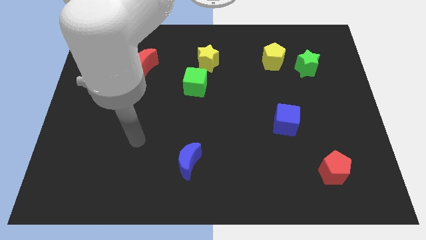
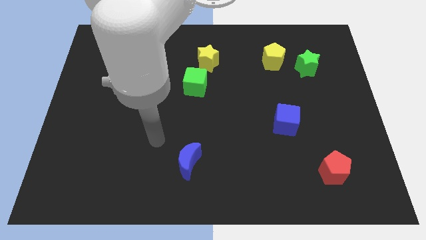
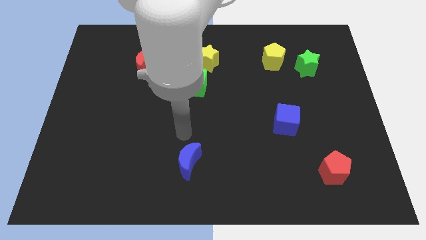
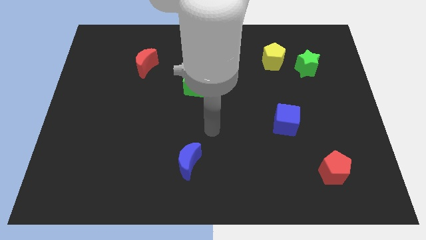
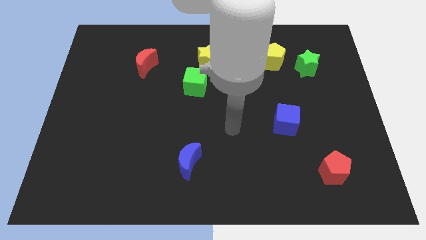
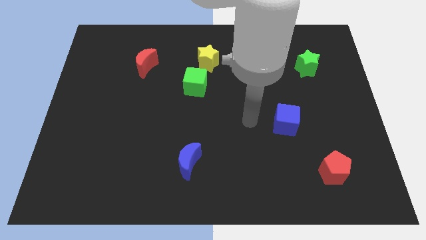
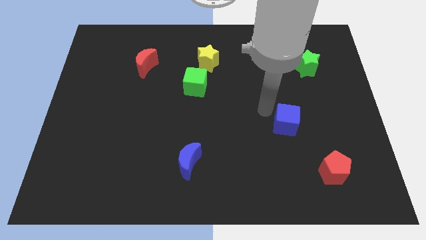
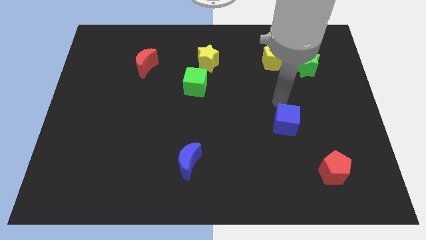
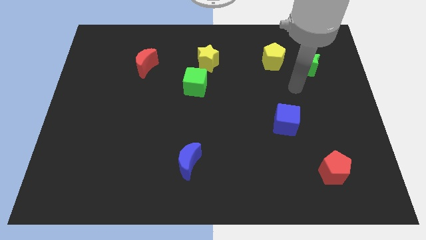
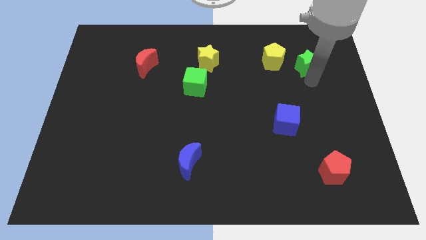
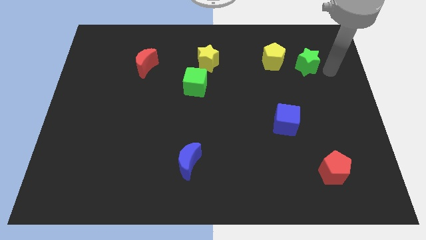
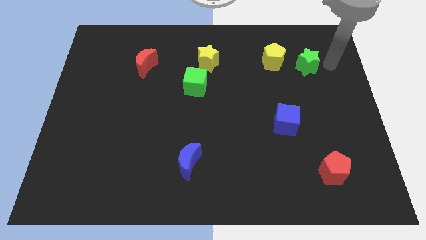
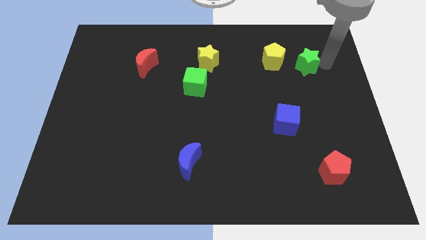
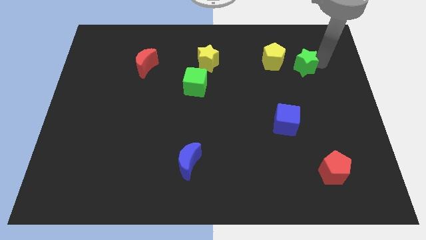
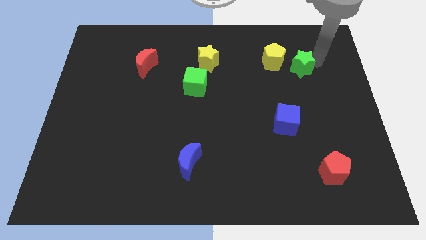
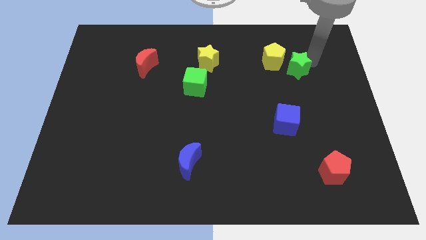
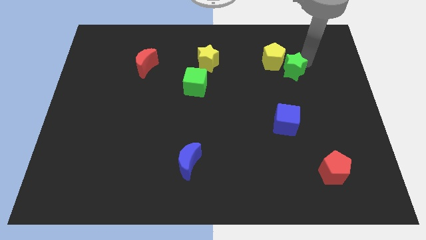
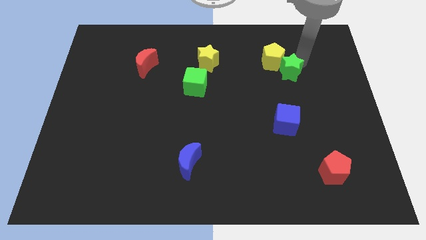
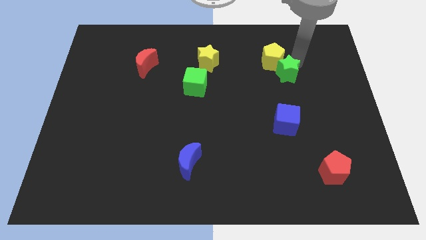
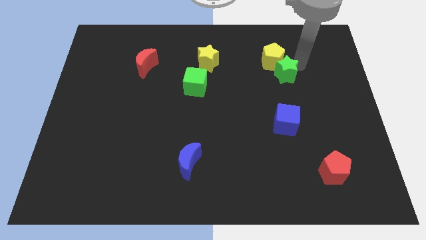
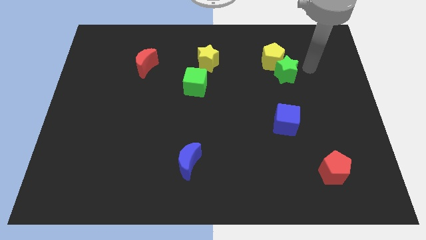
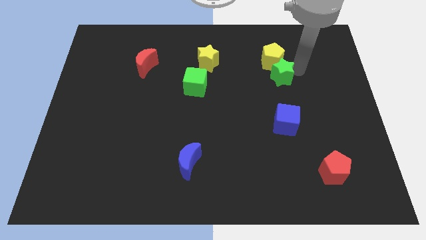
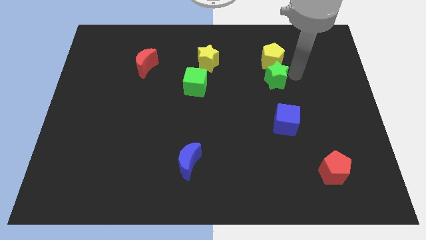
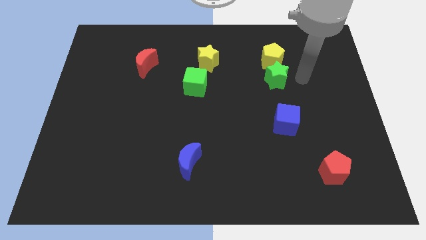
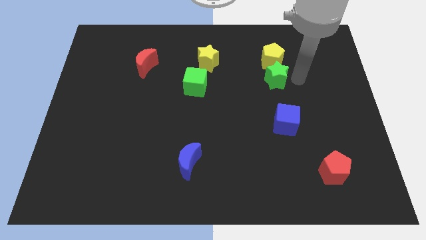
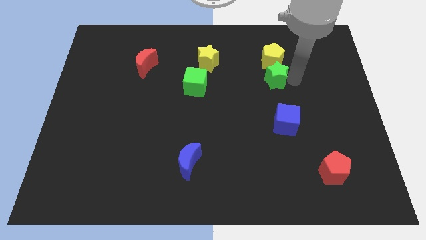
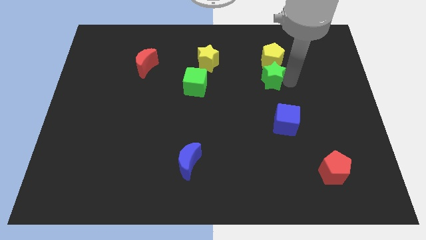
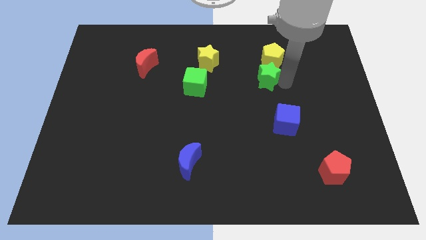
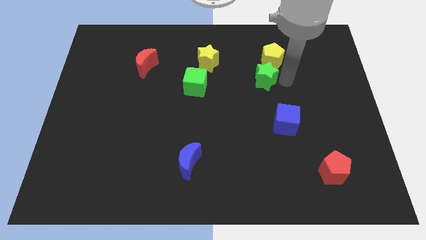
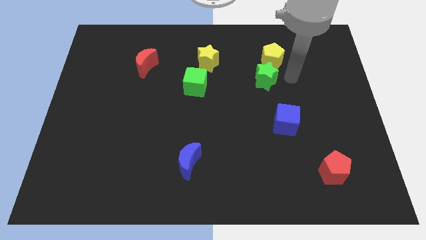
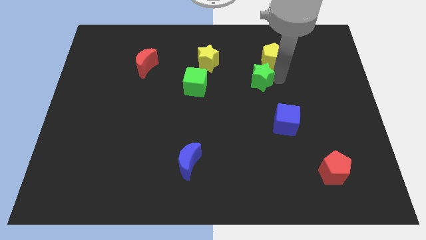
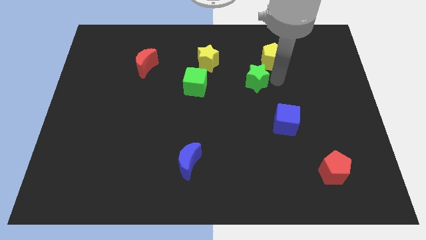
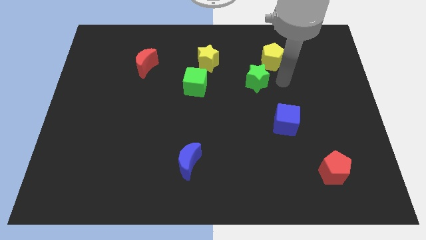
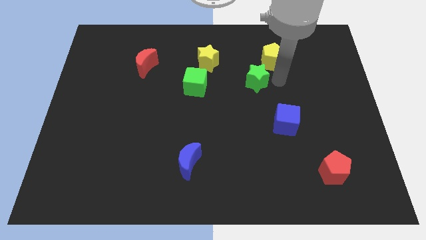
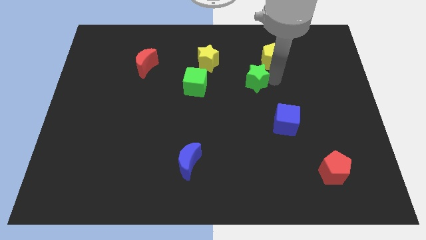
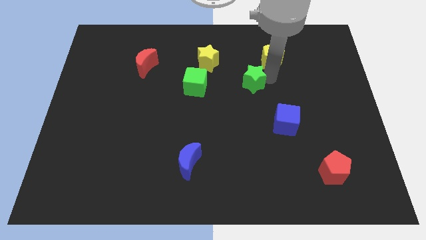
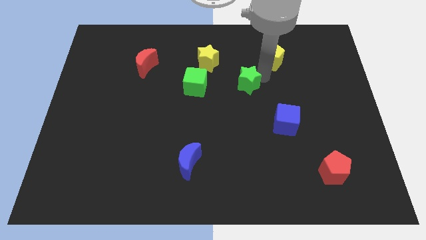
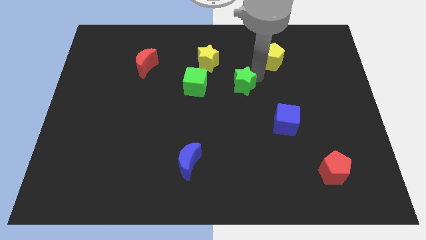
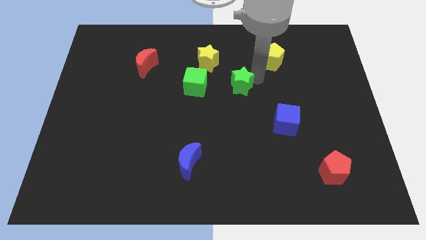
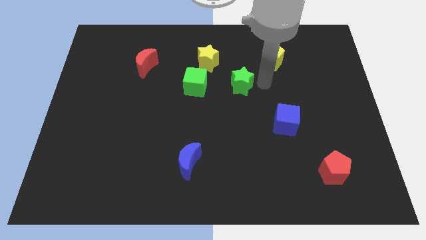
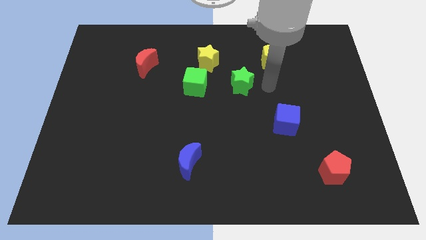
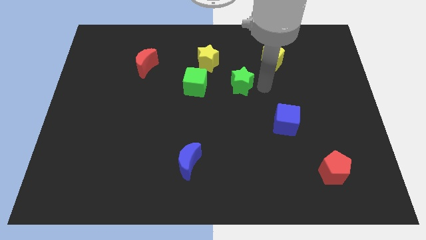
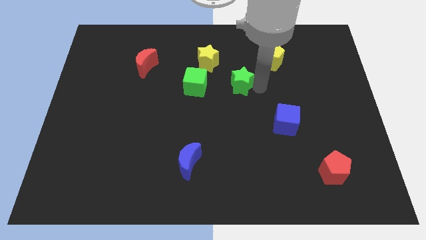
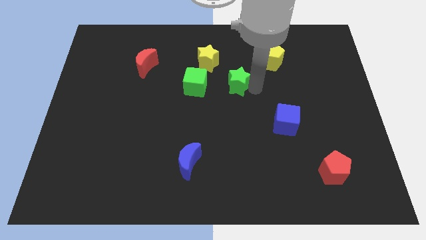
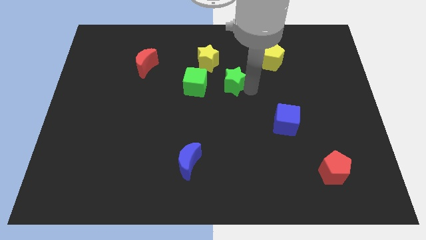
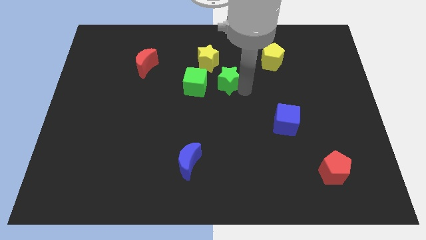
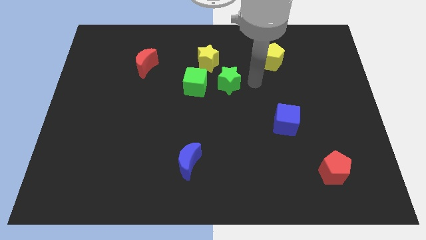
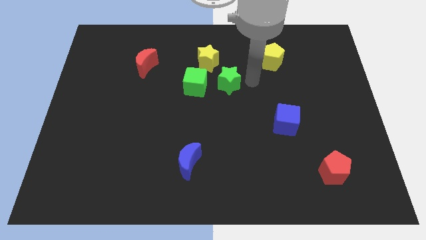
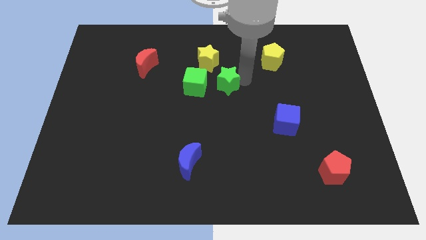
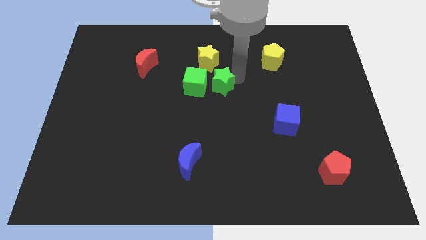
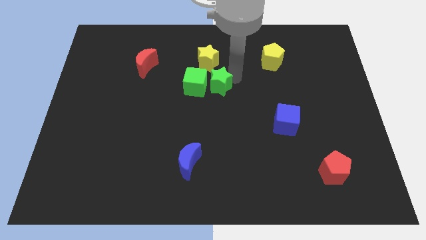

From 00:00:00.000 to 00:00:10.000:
push the green star close to the green cube

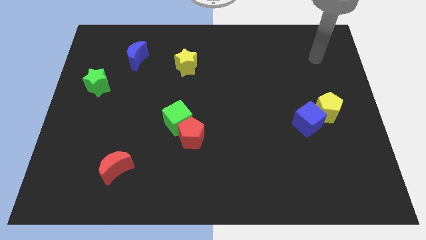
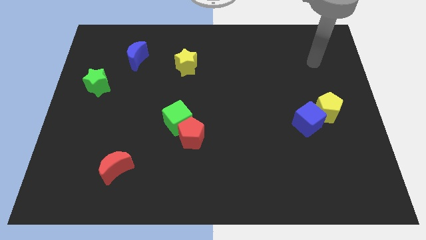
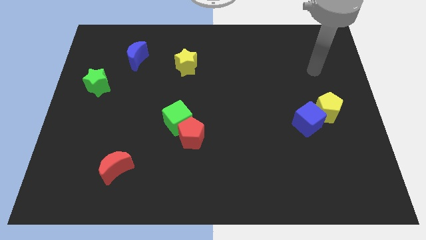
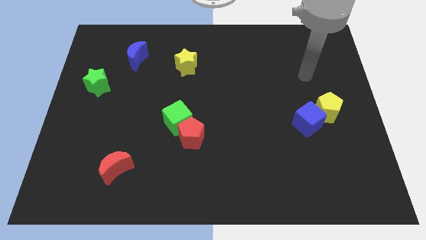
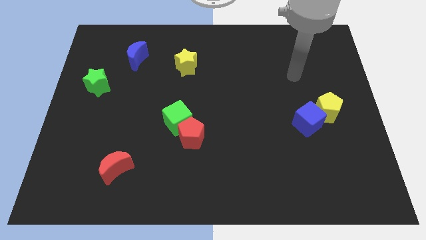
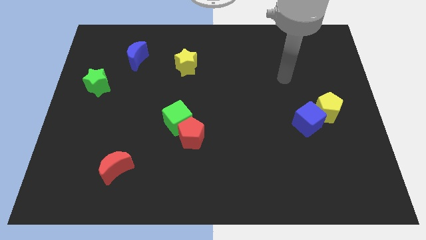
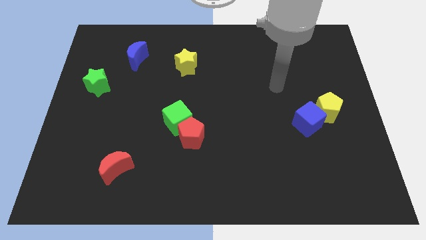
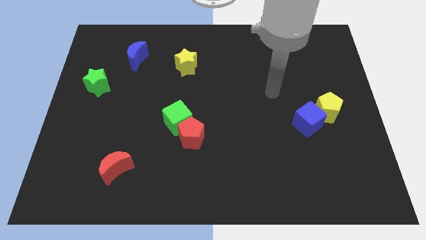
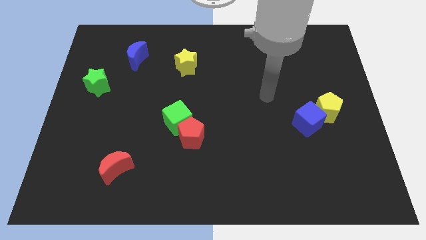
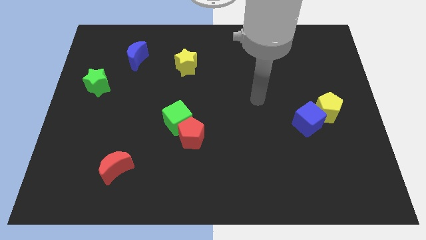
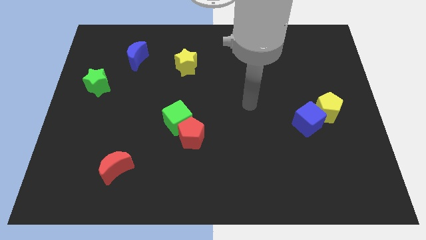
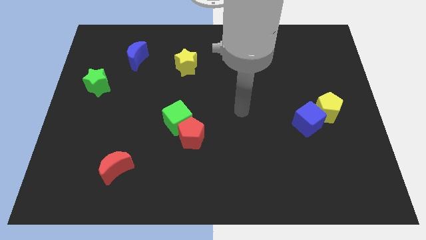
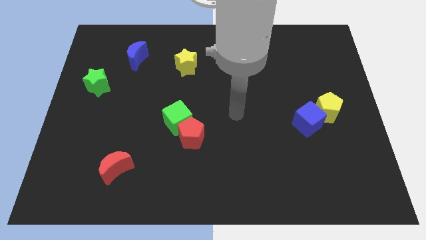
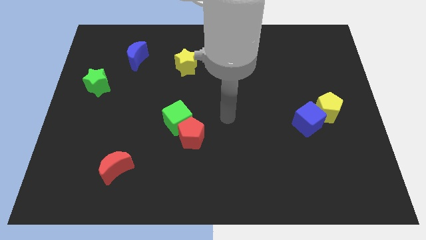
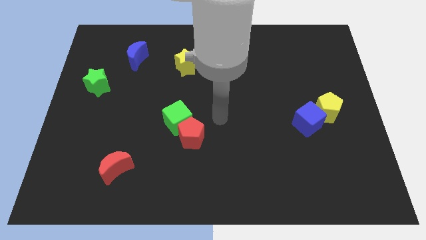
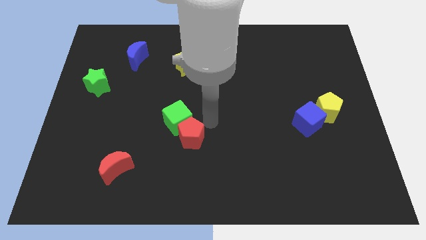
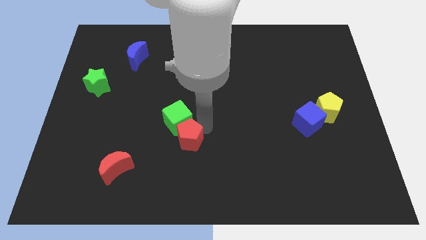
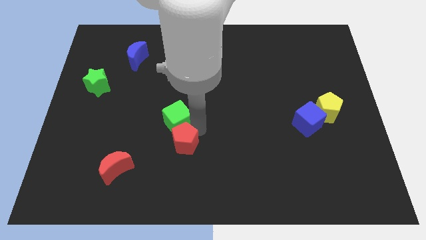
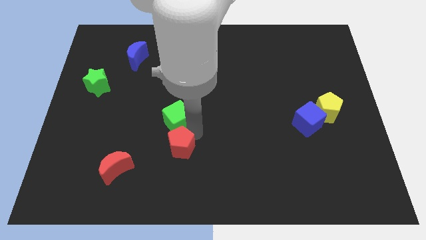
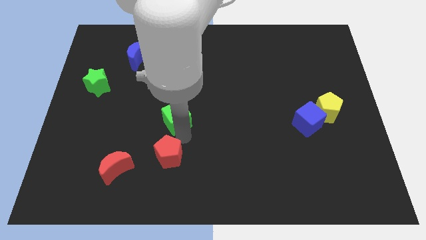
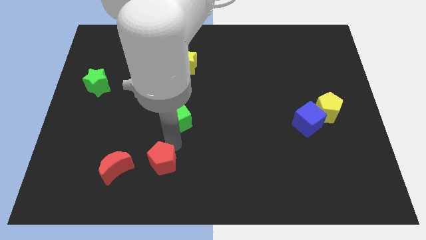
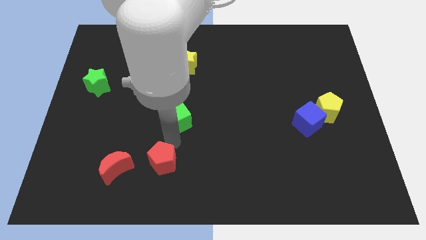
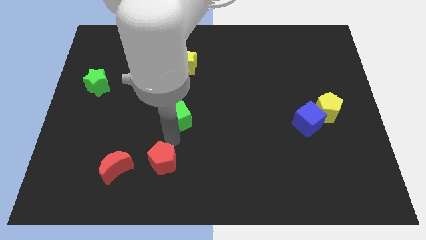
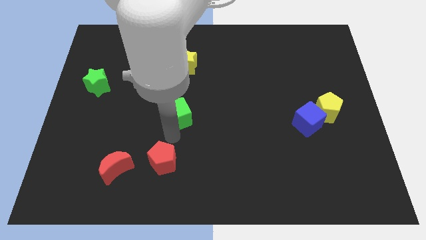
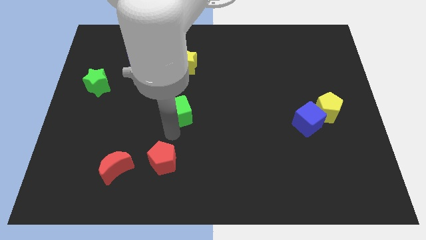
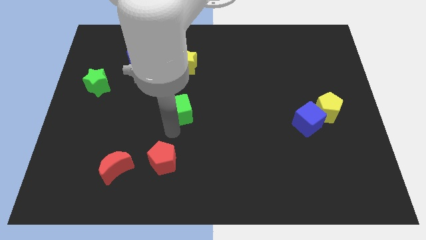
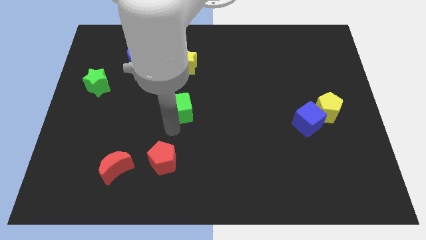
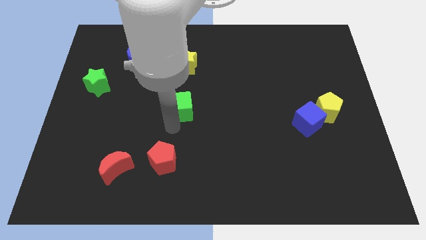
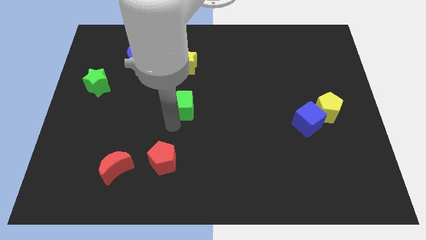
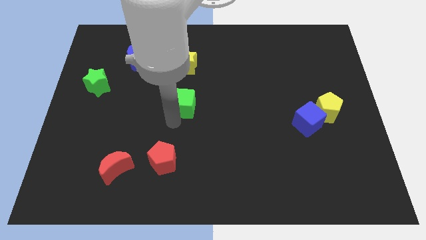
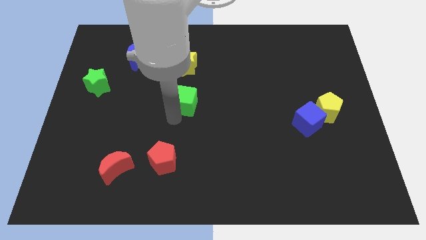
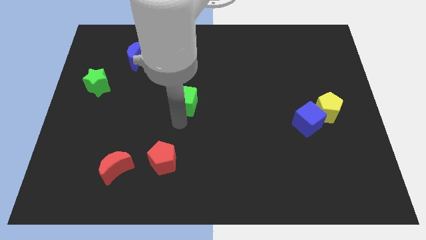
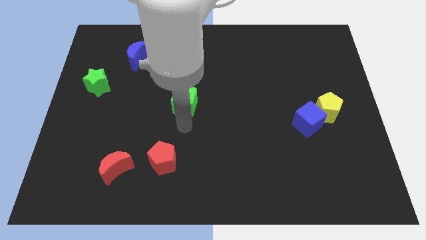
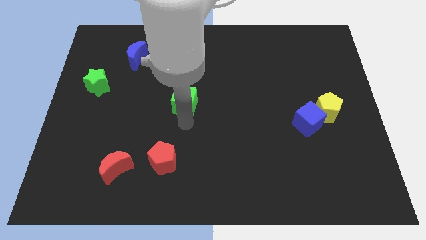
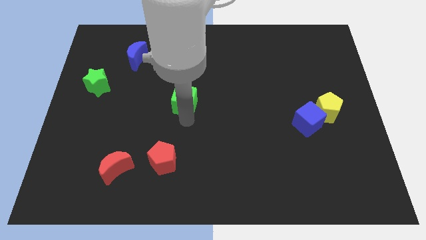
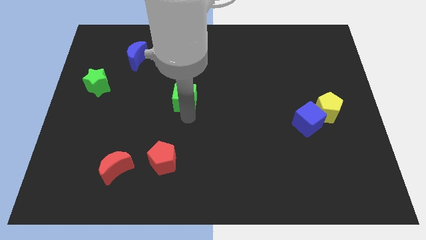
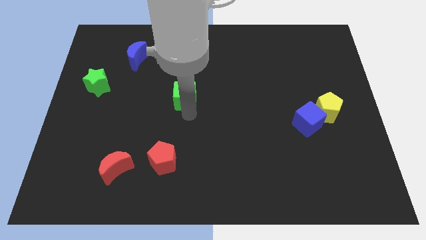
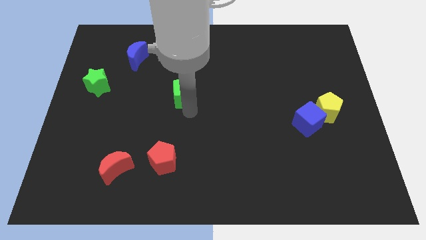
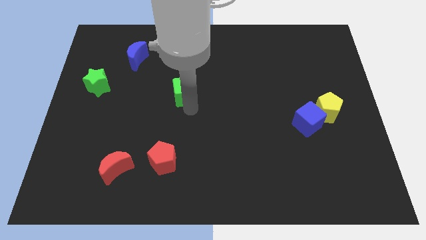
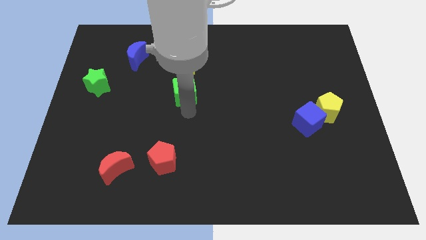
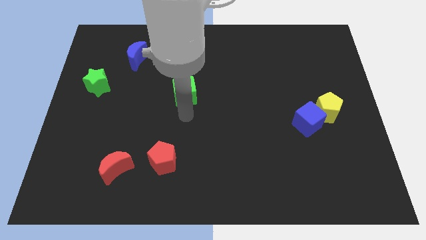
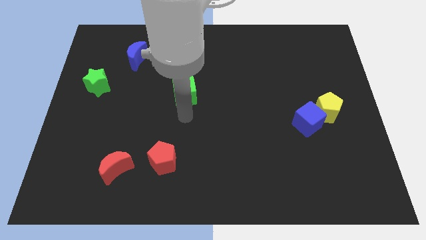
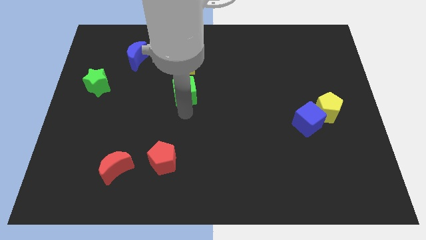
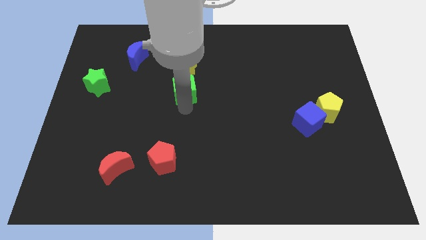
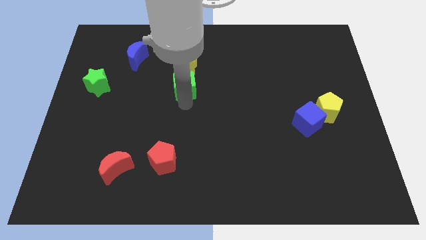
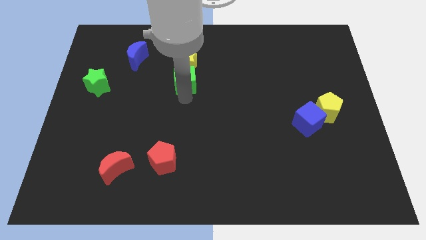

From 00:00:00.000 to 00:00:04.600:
put the green cube to the yellow star
